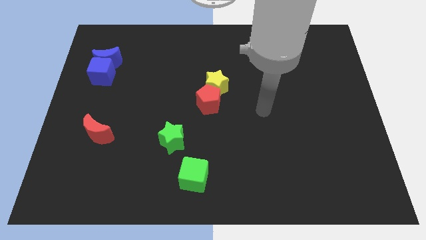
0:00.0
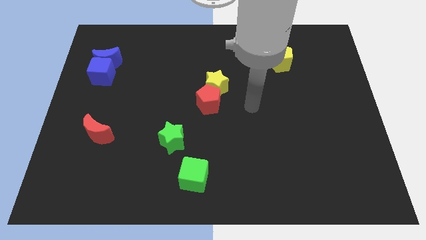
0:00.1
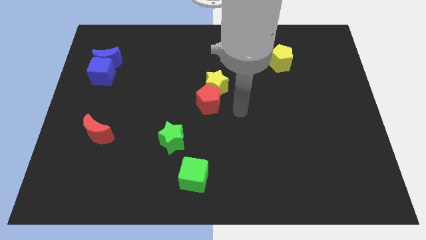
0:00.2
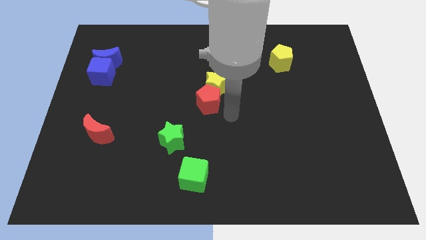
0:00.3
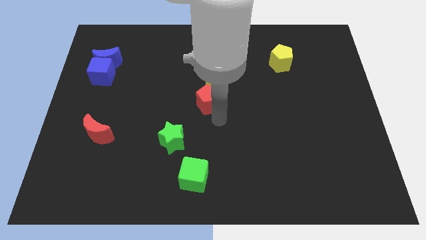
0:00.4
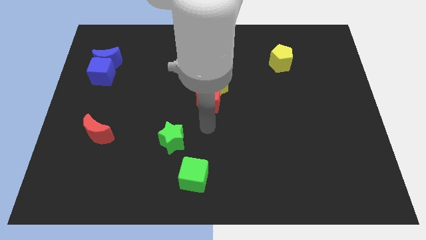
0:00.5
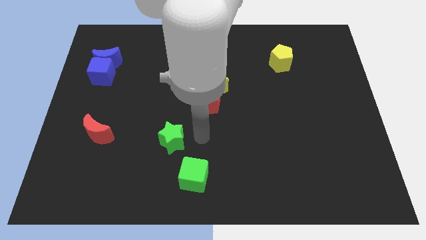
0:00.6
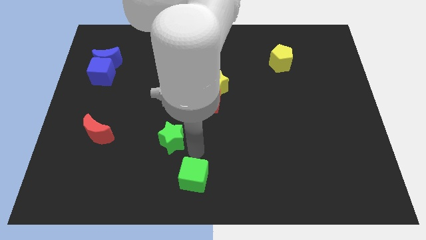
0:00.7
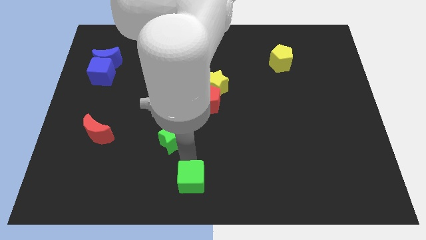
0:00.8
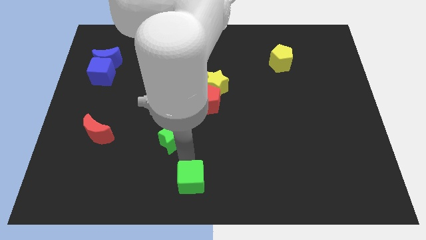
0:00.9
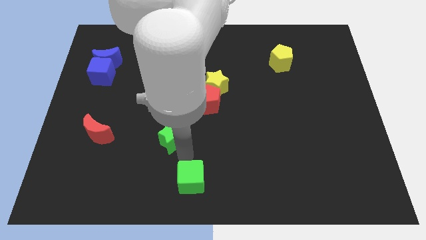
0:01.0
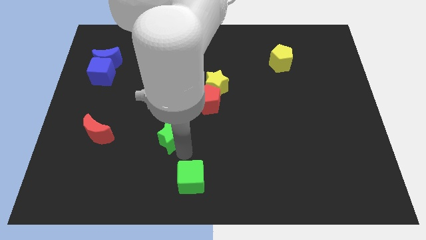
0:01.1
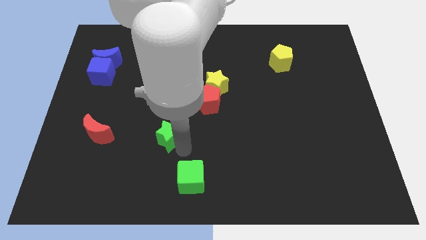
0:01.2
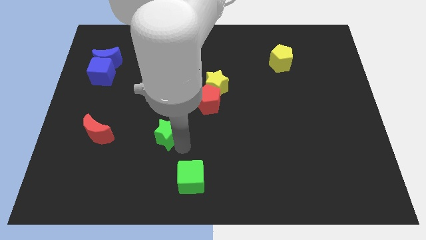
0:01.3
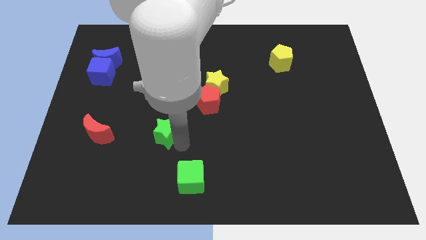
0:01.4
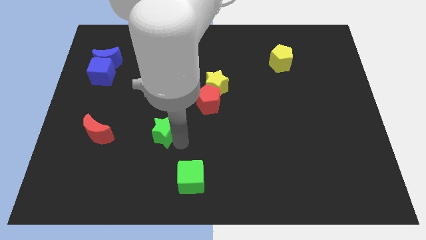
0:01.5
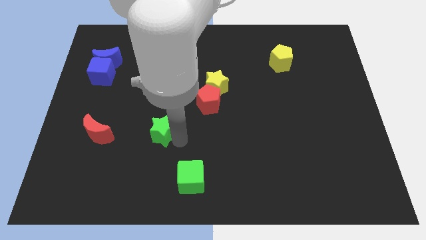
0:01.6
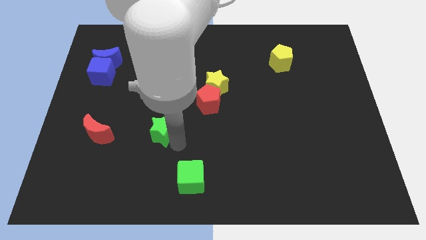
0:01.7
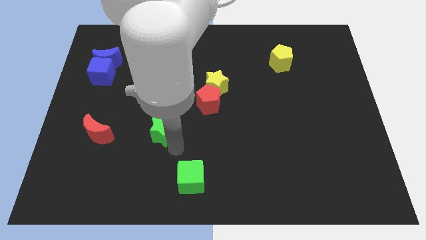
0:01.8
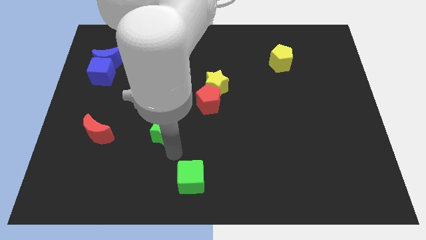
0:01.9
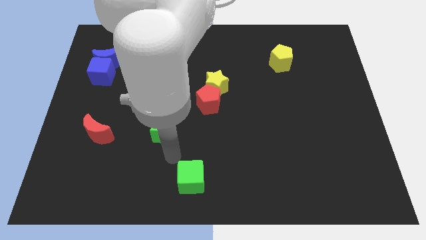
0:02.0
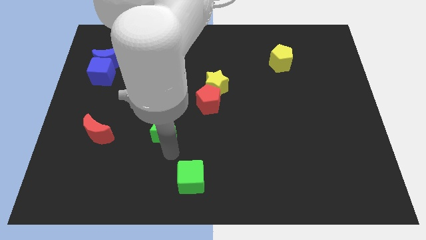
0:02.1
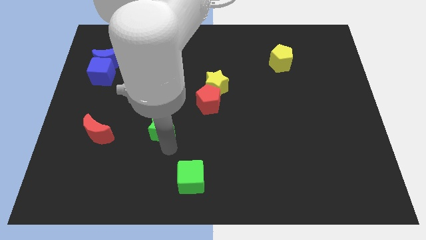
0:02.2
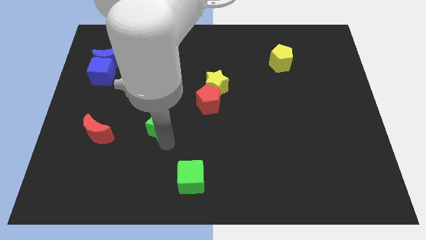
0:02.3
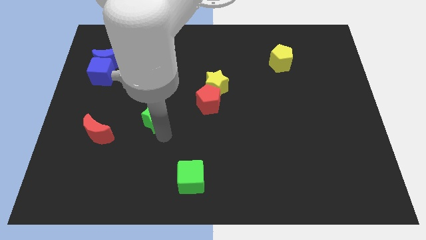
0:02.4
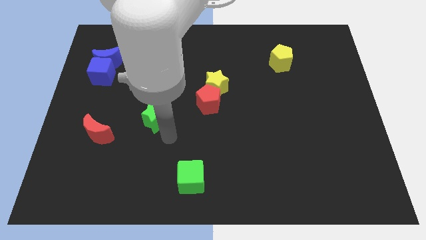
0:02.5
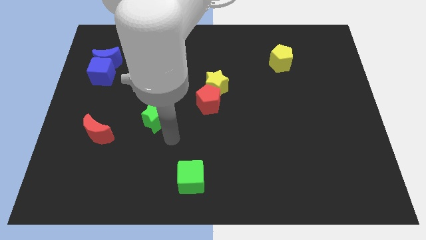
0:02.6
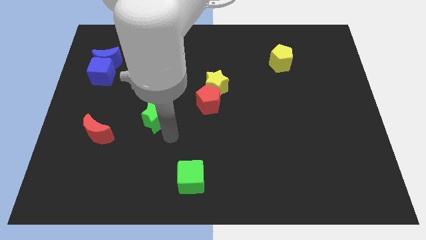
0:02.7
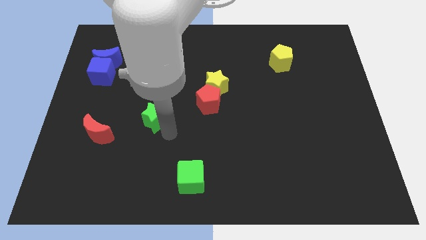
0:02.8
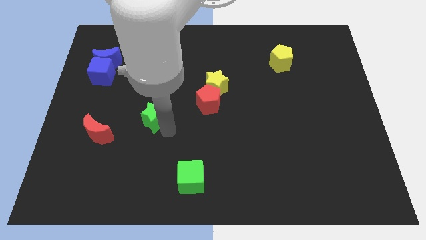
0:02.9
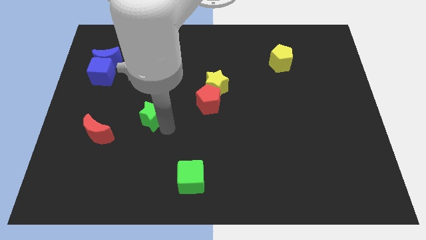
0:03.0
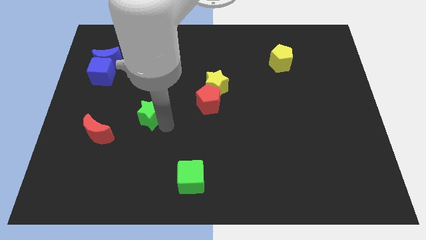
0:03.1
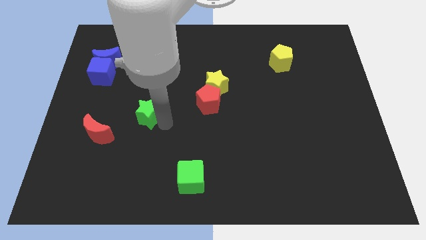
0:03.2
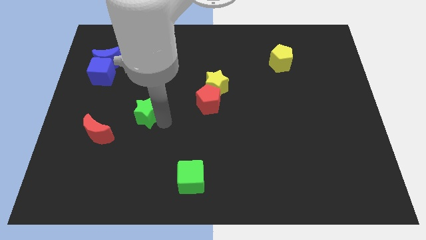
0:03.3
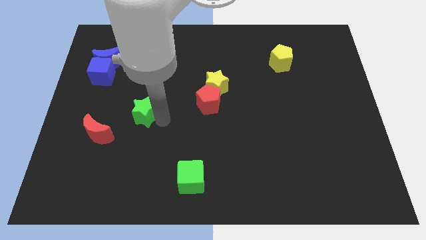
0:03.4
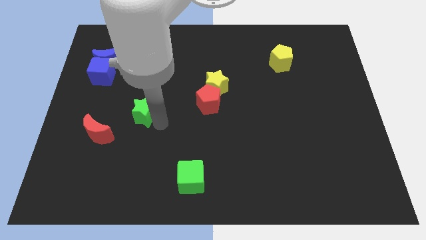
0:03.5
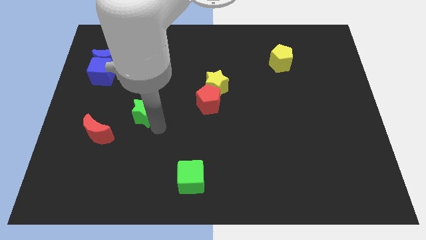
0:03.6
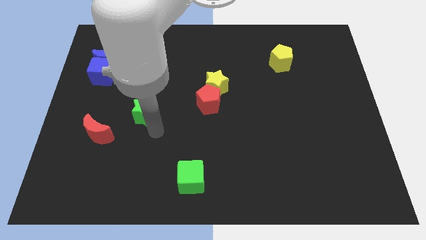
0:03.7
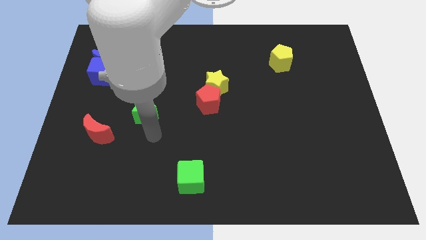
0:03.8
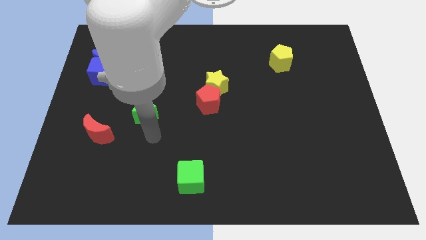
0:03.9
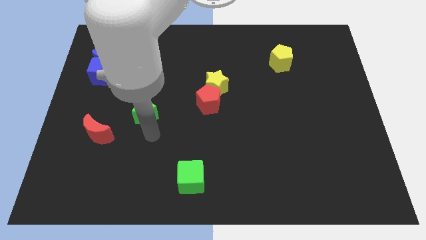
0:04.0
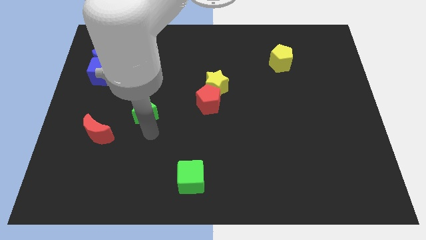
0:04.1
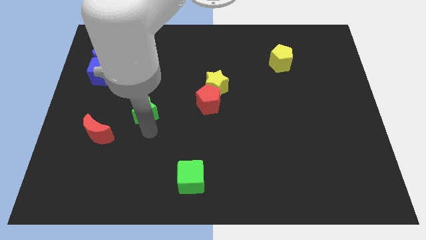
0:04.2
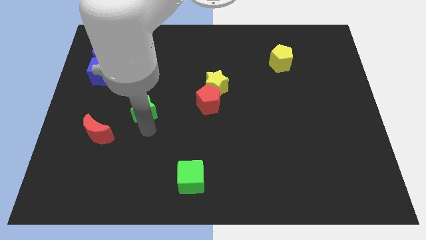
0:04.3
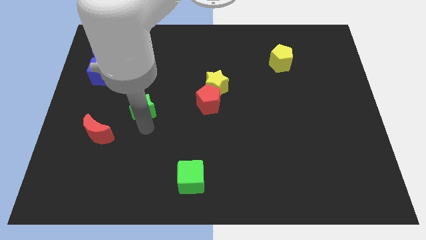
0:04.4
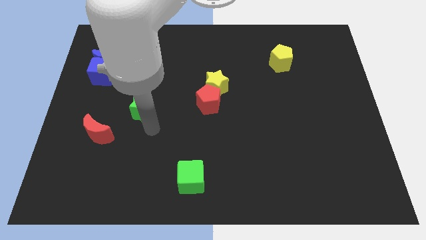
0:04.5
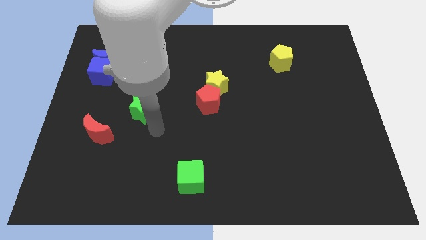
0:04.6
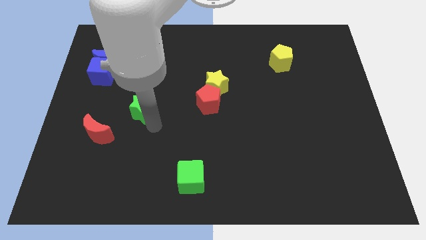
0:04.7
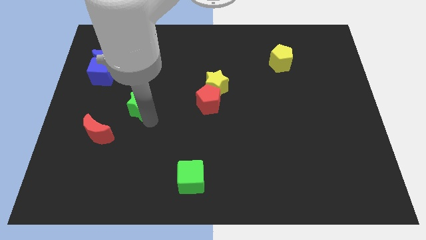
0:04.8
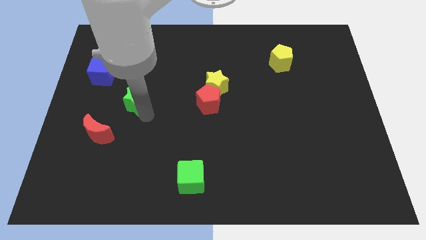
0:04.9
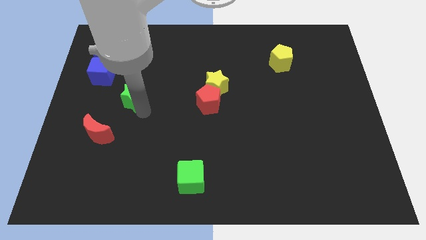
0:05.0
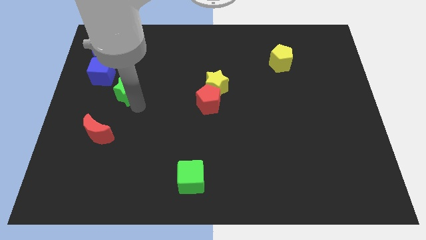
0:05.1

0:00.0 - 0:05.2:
move the green star to the bottom right side of the blue moon

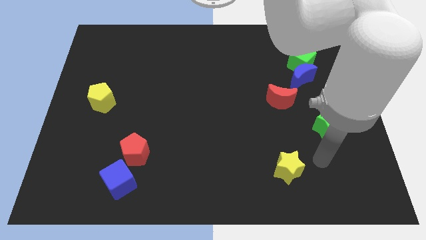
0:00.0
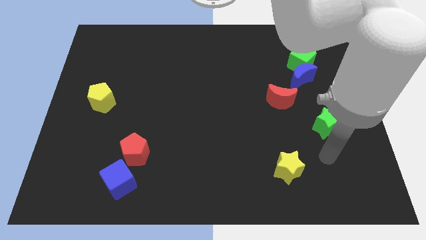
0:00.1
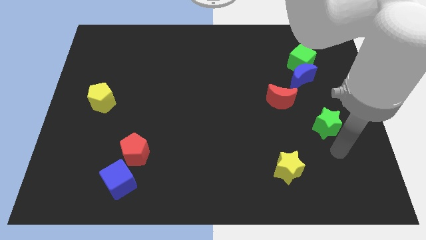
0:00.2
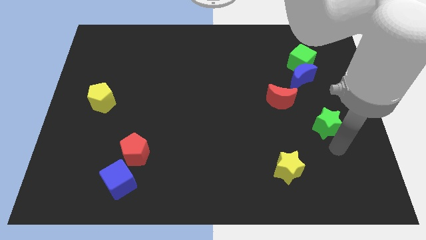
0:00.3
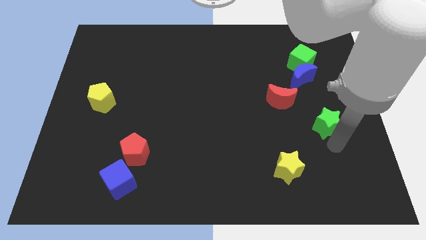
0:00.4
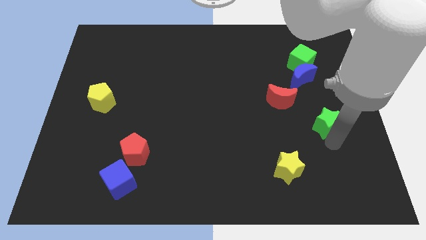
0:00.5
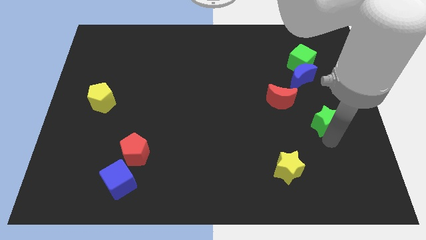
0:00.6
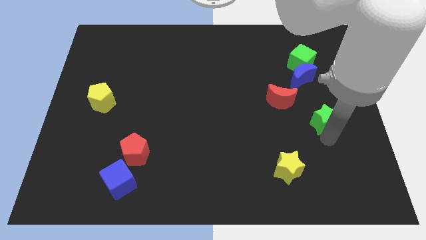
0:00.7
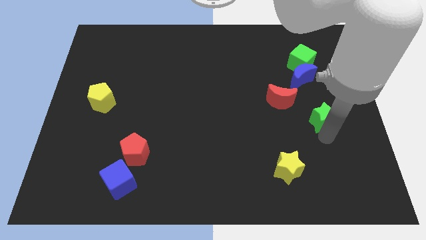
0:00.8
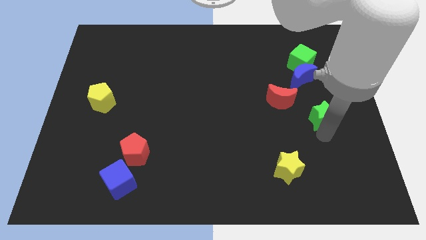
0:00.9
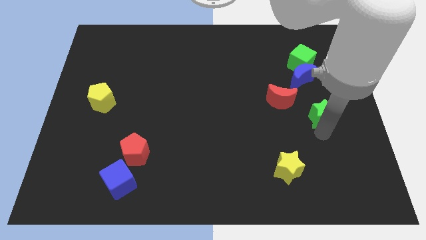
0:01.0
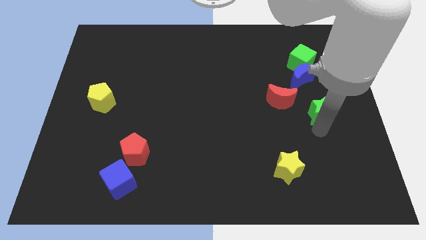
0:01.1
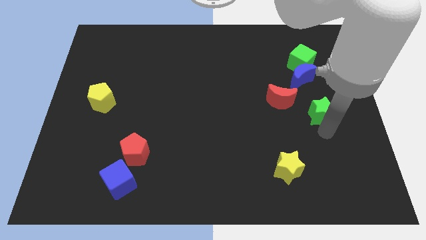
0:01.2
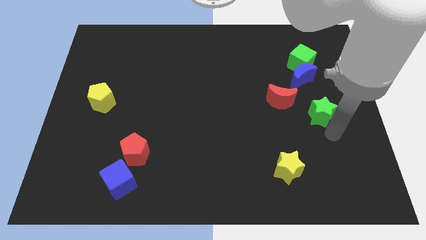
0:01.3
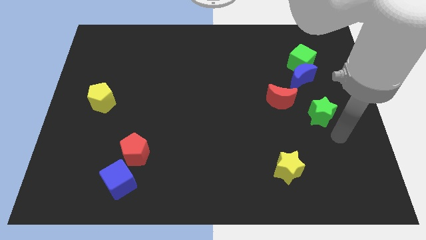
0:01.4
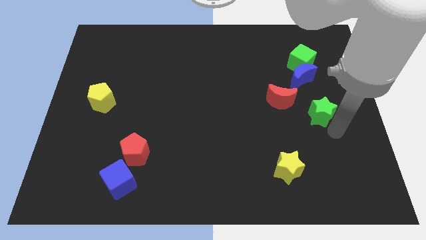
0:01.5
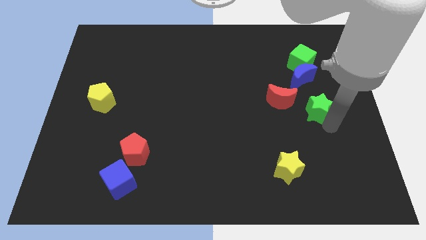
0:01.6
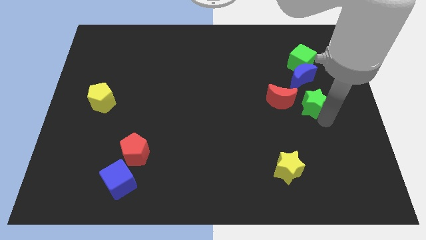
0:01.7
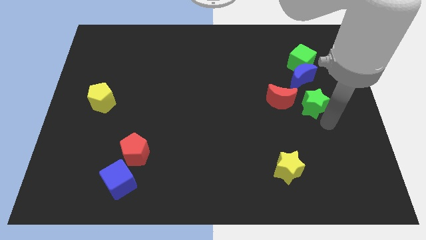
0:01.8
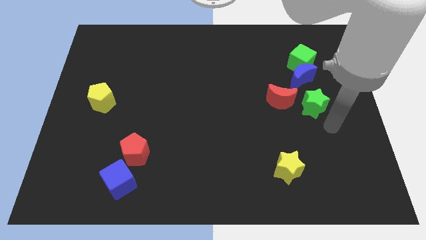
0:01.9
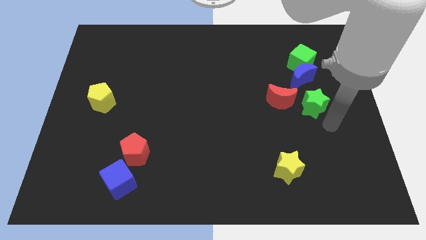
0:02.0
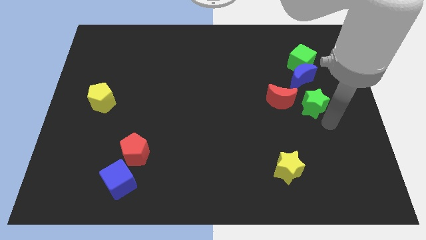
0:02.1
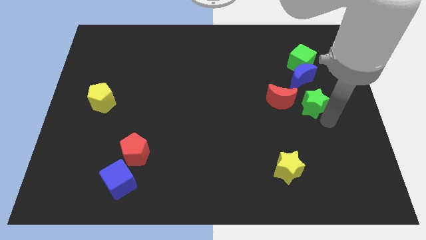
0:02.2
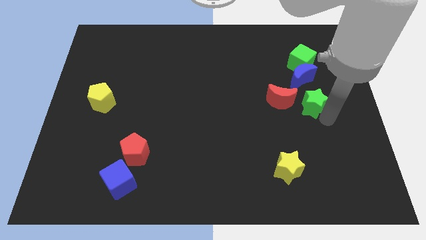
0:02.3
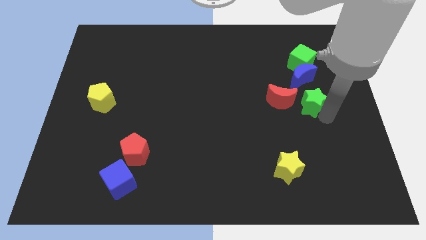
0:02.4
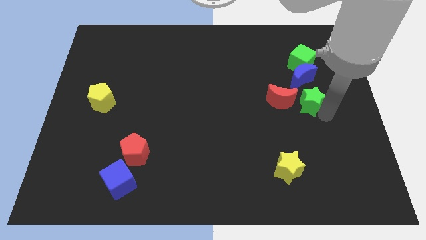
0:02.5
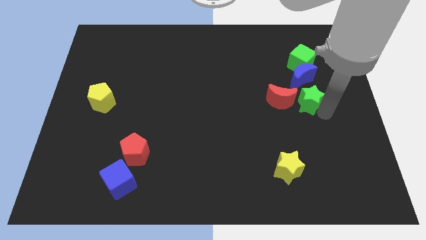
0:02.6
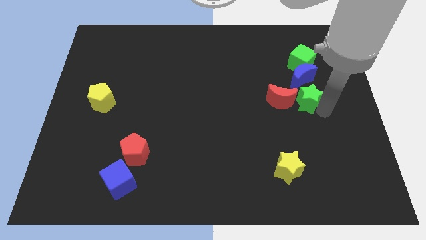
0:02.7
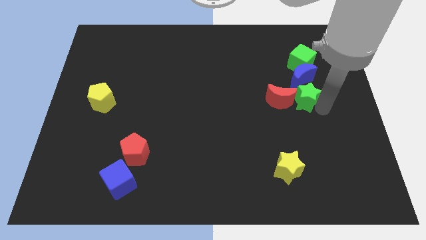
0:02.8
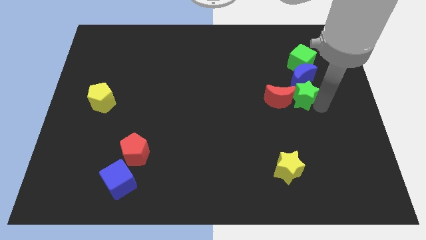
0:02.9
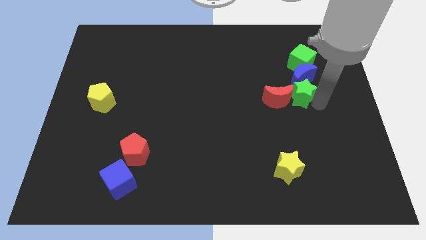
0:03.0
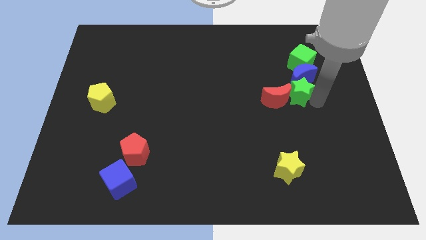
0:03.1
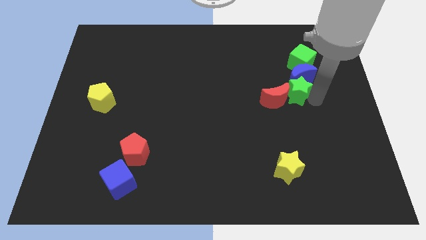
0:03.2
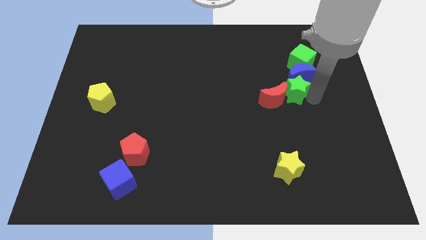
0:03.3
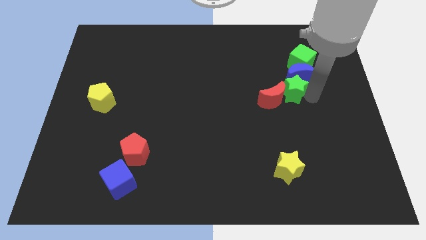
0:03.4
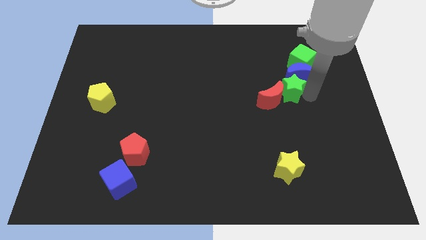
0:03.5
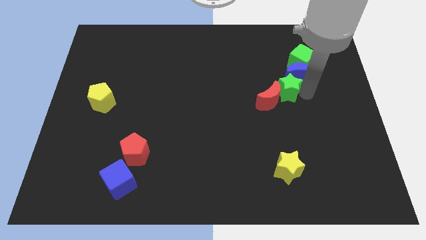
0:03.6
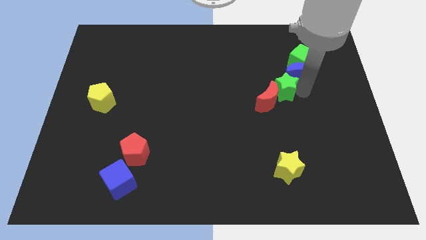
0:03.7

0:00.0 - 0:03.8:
push the green star to the top side of the red moon
